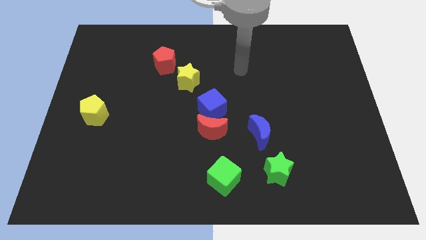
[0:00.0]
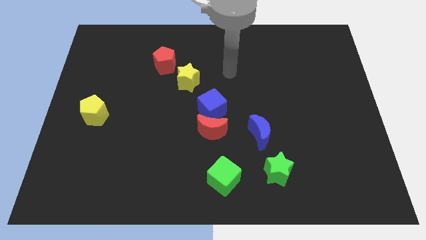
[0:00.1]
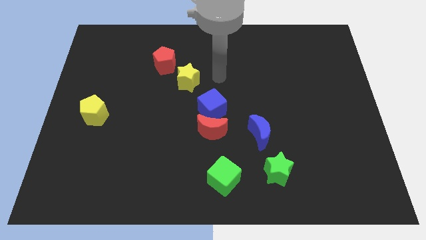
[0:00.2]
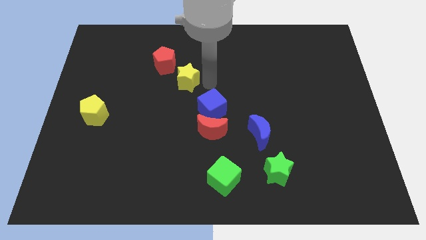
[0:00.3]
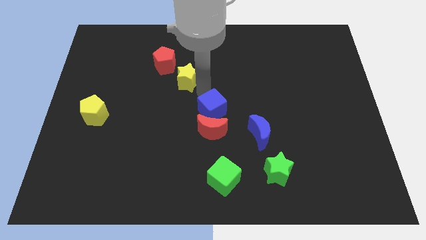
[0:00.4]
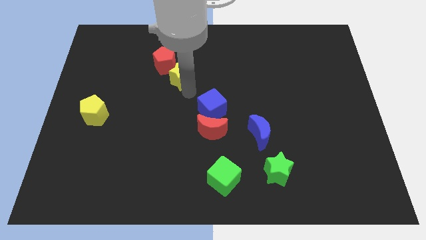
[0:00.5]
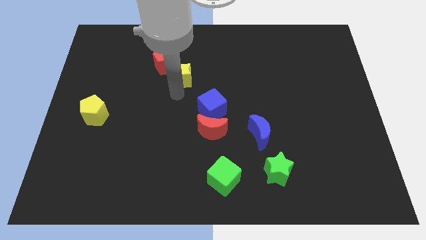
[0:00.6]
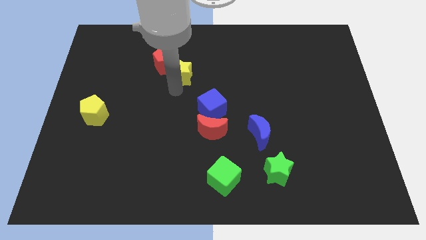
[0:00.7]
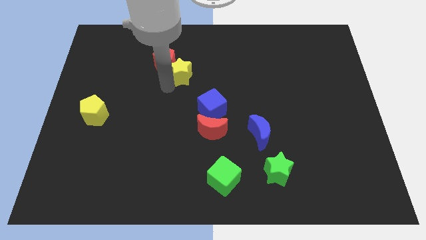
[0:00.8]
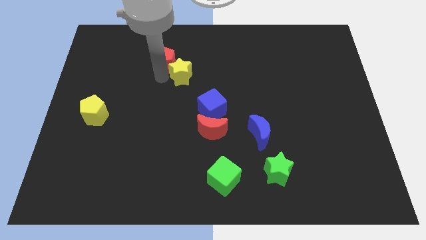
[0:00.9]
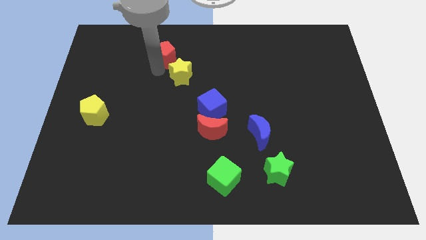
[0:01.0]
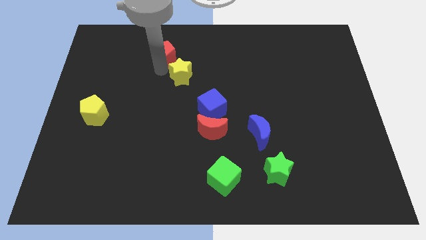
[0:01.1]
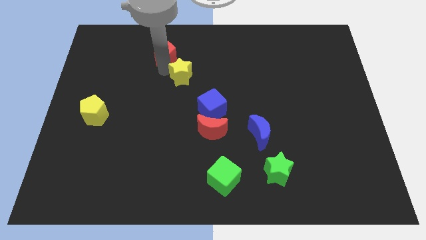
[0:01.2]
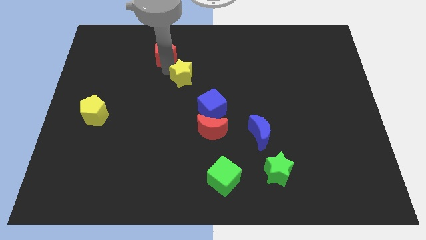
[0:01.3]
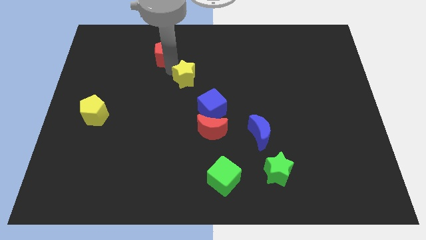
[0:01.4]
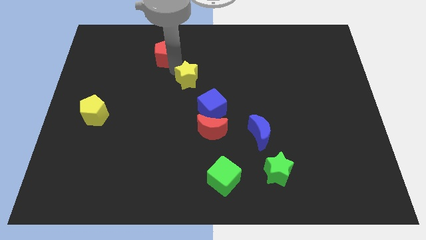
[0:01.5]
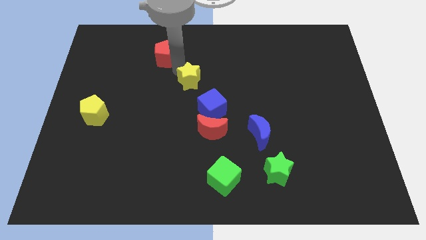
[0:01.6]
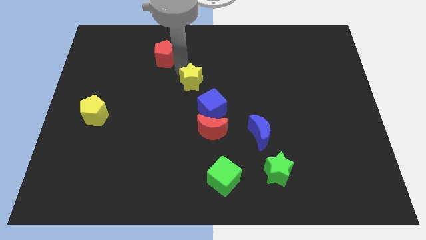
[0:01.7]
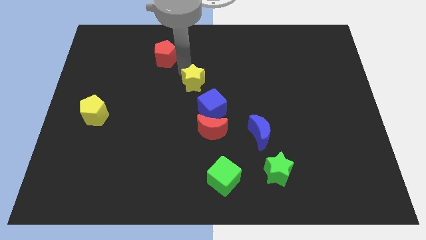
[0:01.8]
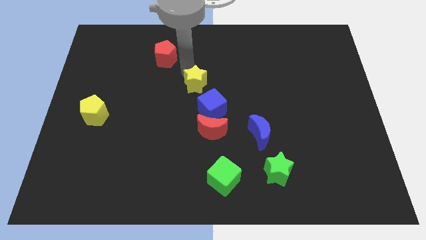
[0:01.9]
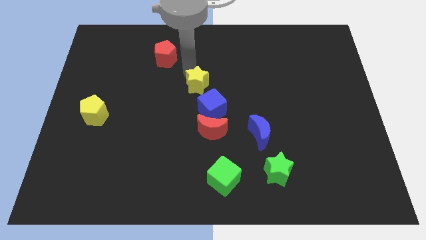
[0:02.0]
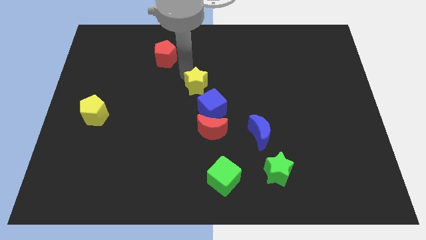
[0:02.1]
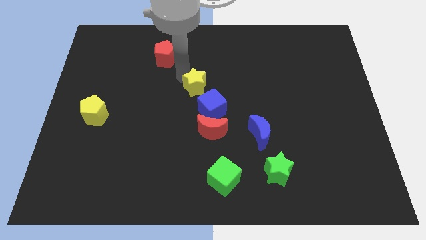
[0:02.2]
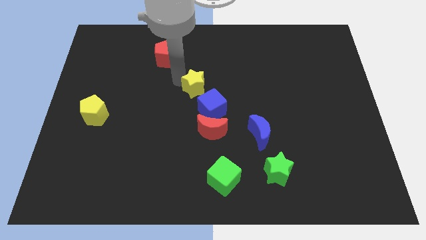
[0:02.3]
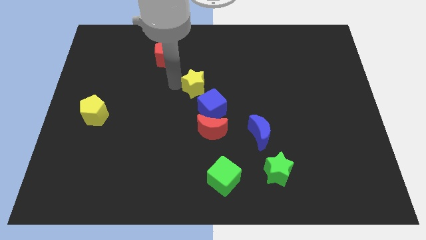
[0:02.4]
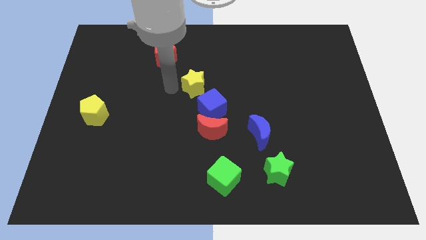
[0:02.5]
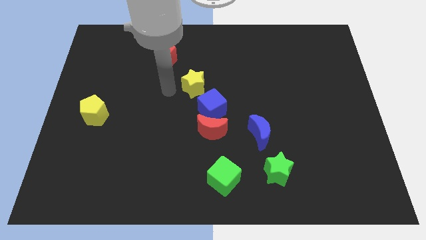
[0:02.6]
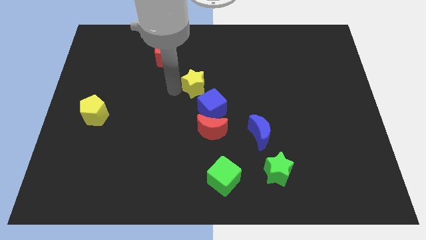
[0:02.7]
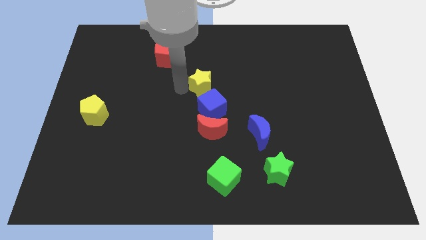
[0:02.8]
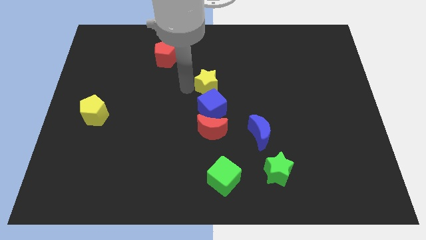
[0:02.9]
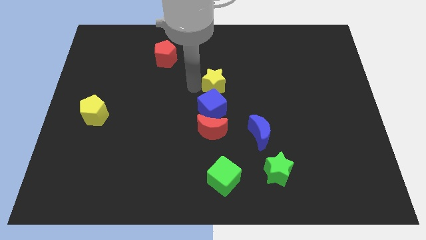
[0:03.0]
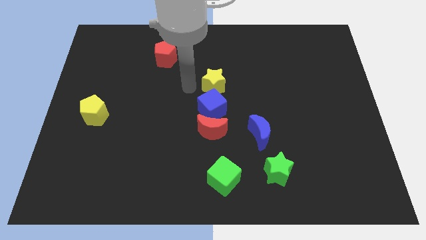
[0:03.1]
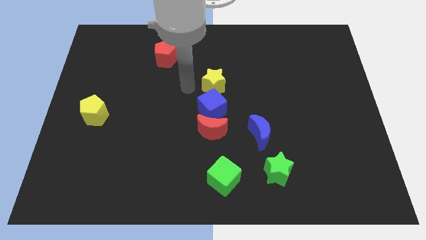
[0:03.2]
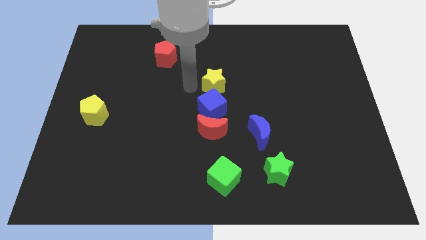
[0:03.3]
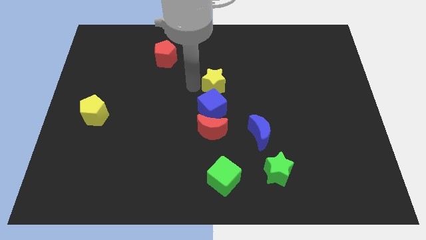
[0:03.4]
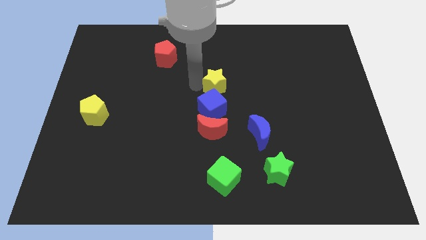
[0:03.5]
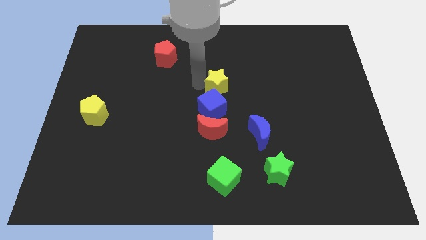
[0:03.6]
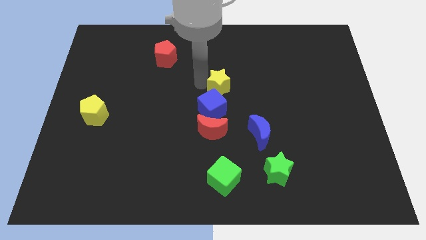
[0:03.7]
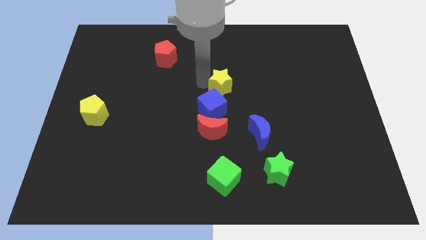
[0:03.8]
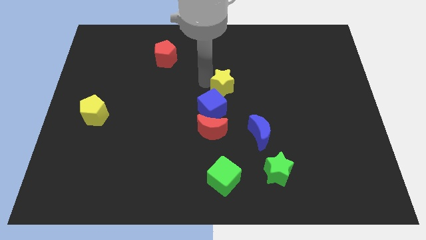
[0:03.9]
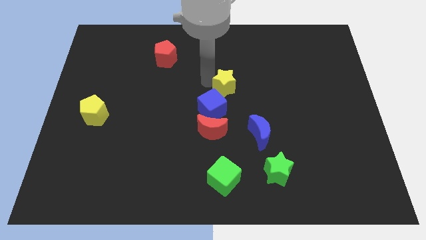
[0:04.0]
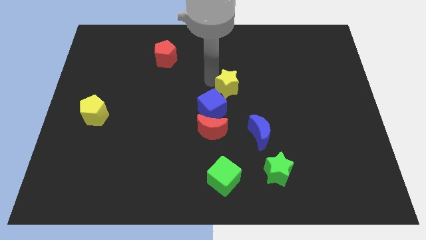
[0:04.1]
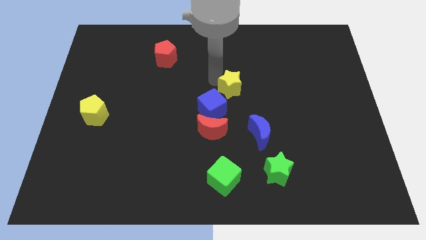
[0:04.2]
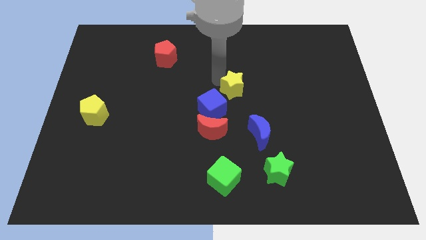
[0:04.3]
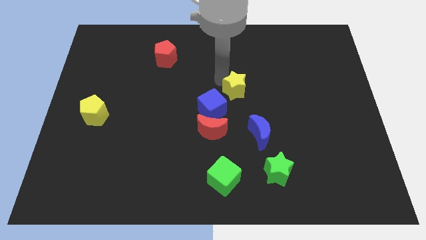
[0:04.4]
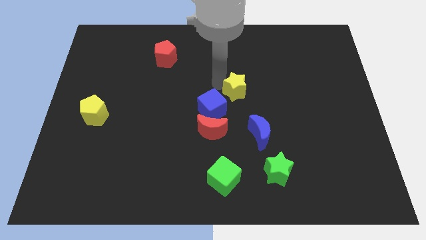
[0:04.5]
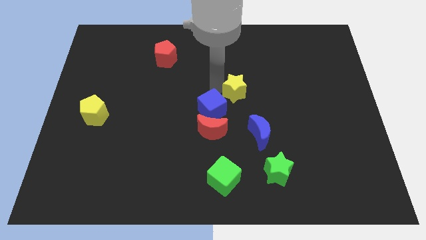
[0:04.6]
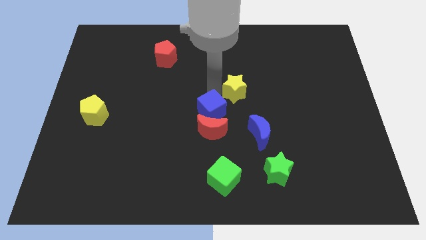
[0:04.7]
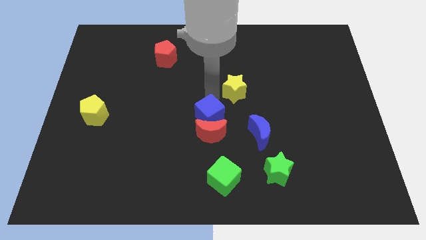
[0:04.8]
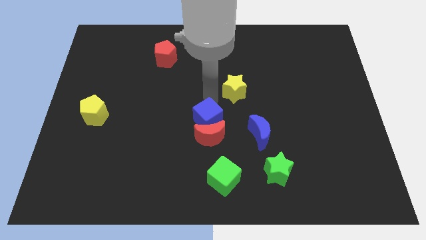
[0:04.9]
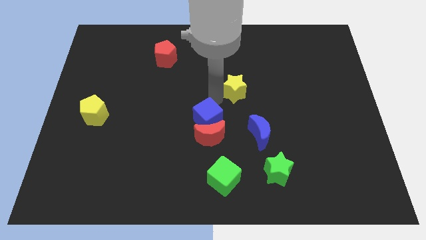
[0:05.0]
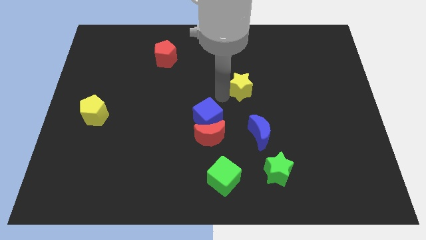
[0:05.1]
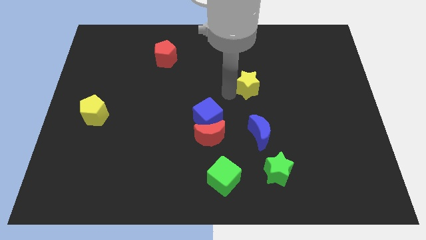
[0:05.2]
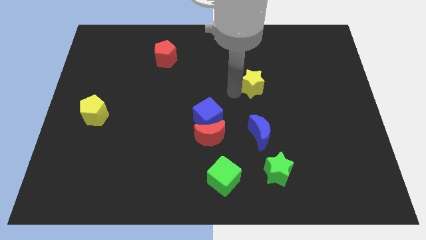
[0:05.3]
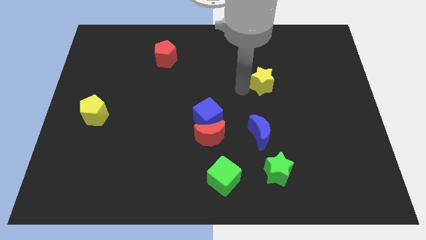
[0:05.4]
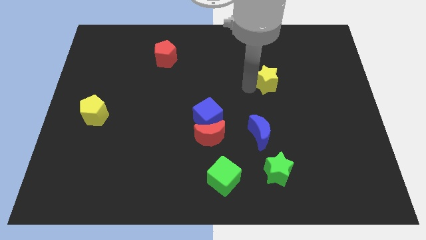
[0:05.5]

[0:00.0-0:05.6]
move the yellow star right

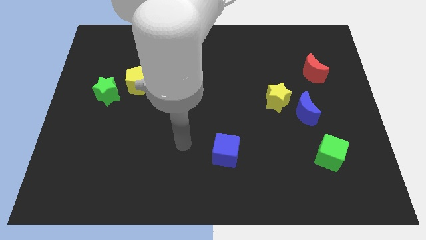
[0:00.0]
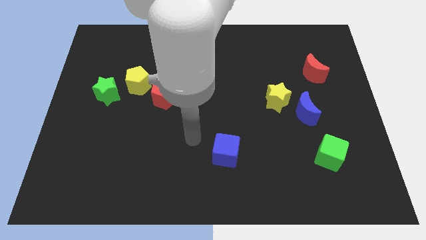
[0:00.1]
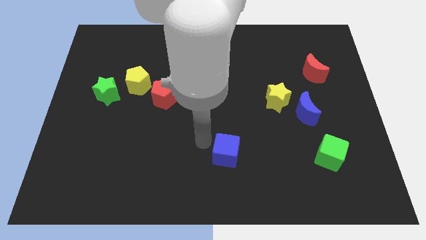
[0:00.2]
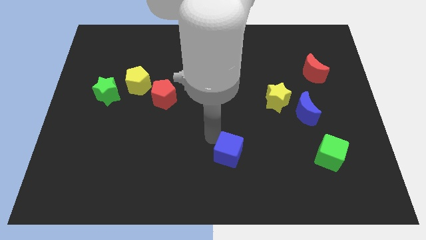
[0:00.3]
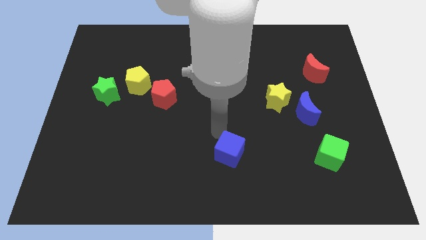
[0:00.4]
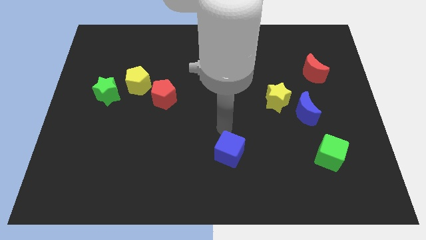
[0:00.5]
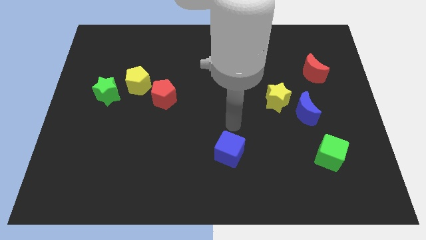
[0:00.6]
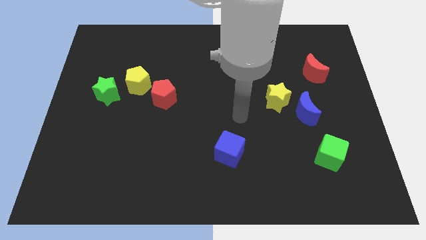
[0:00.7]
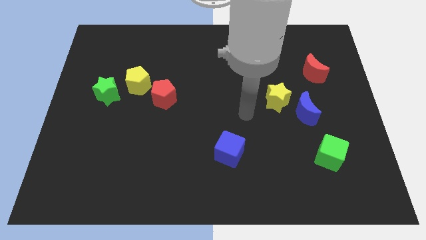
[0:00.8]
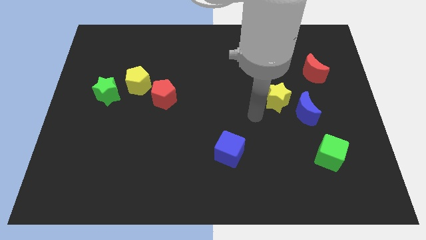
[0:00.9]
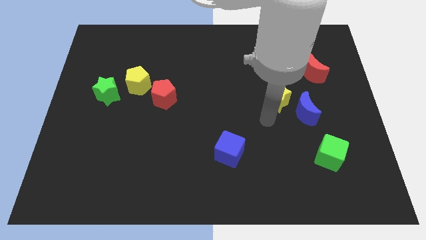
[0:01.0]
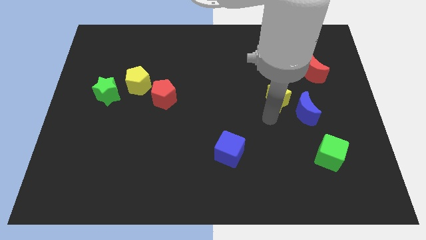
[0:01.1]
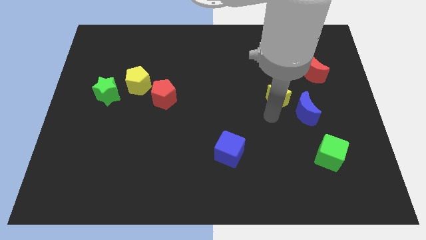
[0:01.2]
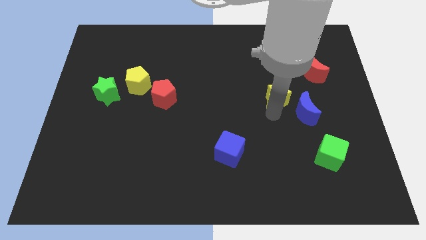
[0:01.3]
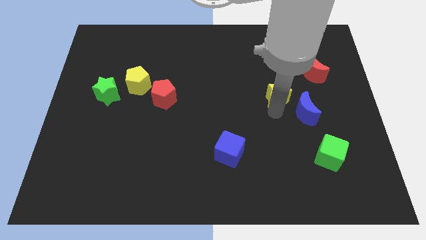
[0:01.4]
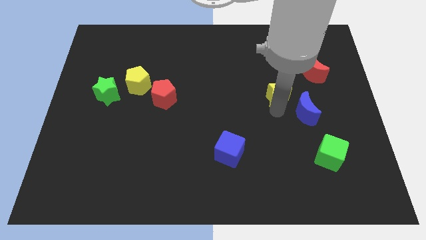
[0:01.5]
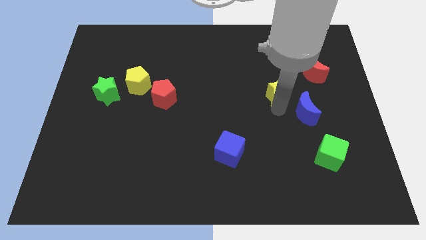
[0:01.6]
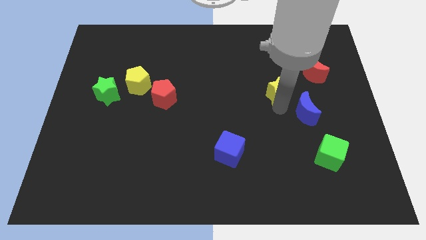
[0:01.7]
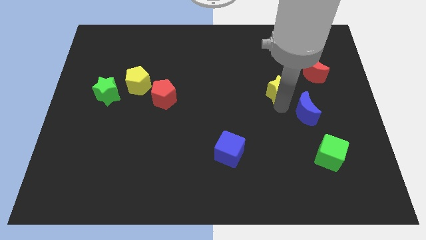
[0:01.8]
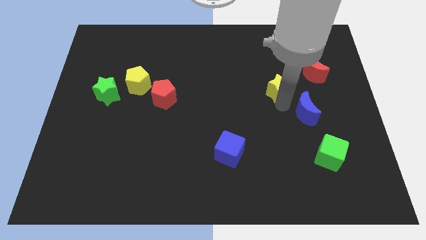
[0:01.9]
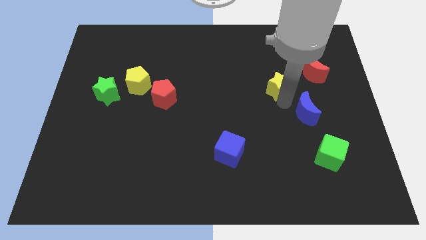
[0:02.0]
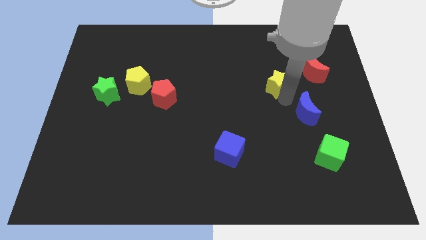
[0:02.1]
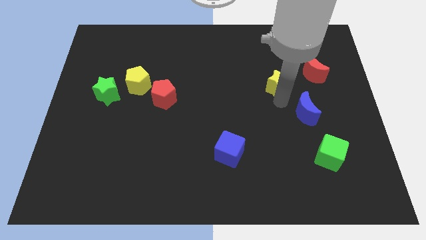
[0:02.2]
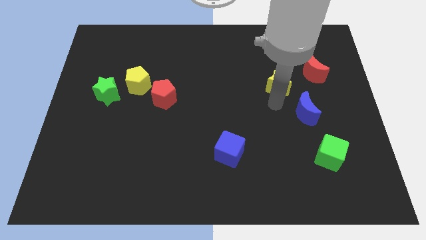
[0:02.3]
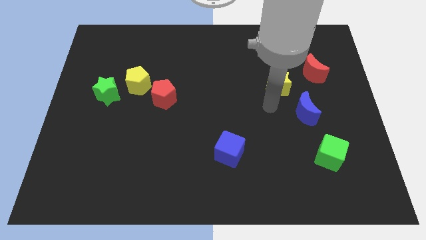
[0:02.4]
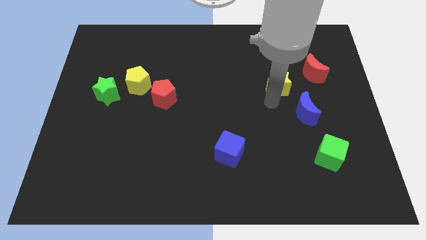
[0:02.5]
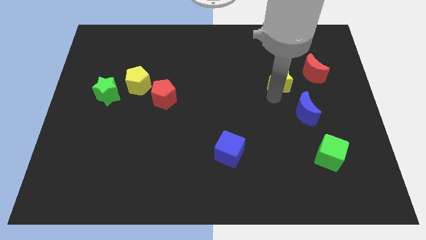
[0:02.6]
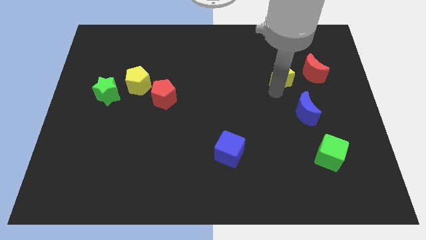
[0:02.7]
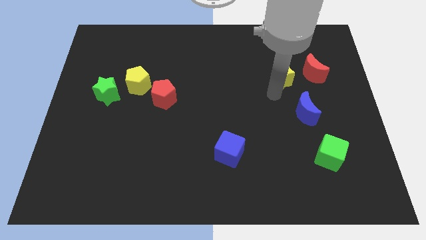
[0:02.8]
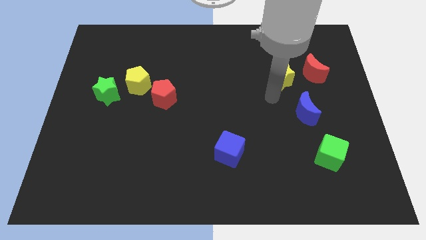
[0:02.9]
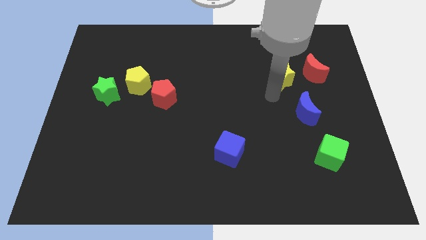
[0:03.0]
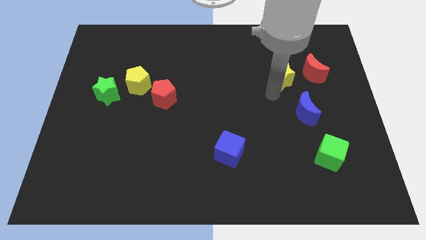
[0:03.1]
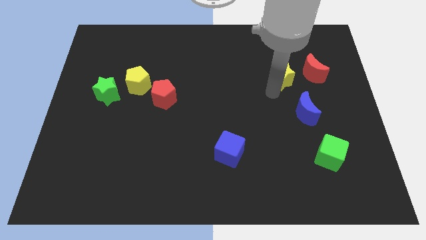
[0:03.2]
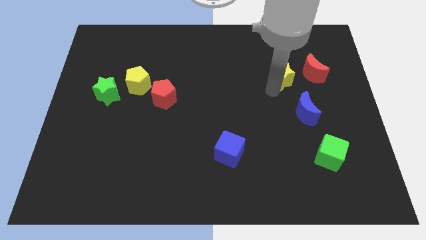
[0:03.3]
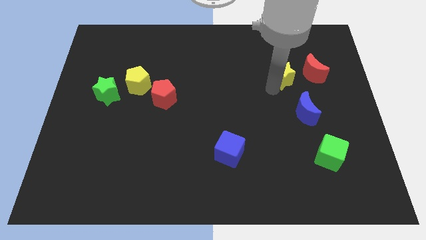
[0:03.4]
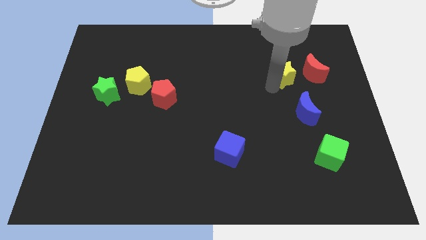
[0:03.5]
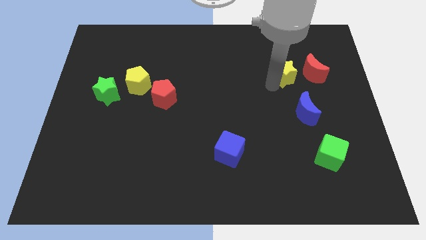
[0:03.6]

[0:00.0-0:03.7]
move the yellow star a bit diagonally upwards and to the right
